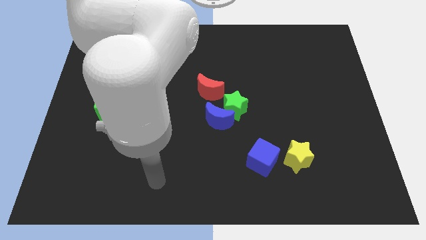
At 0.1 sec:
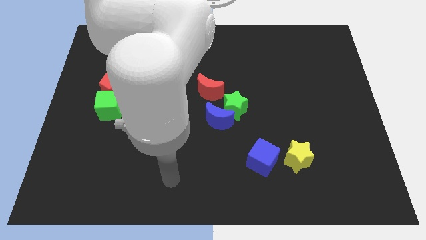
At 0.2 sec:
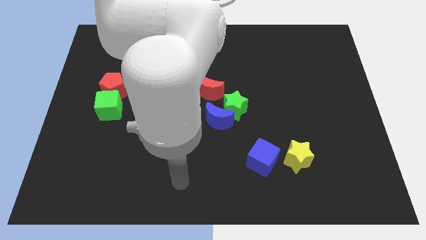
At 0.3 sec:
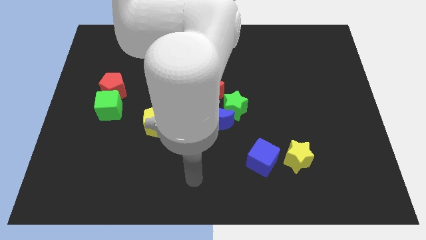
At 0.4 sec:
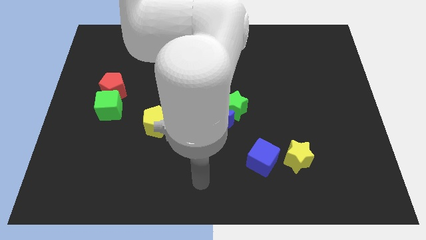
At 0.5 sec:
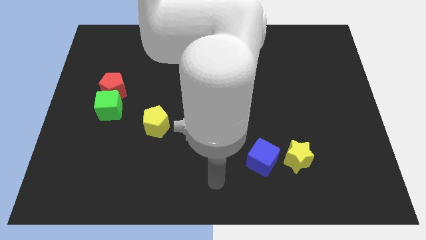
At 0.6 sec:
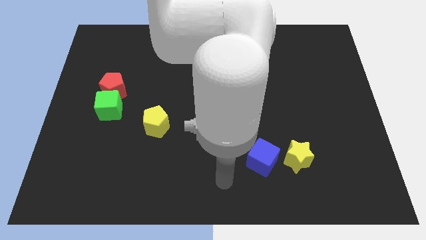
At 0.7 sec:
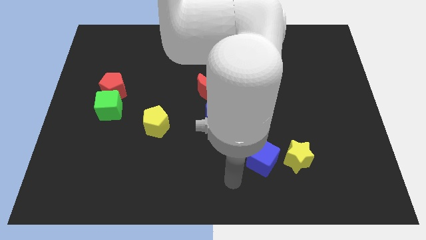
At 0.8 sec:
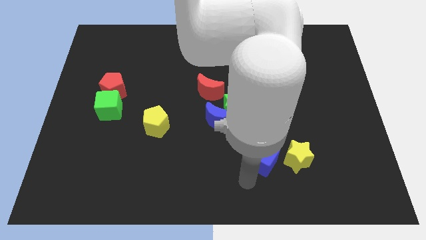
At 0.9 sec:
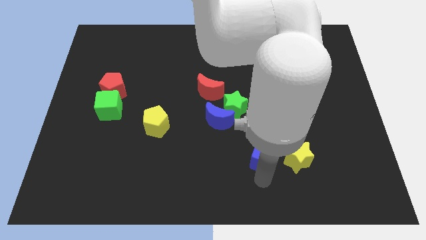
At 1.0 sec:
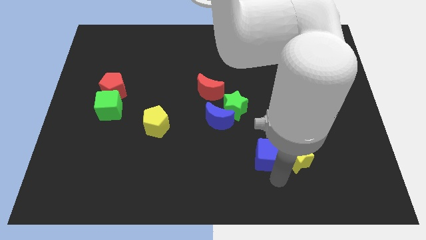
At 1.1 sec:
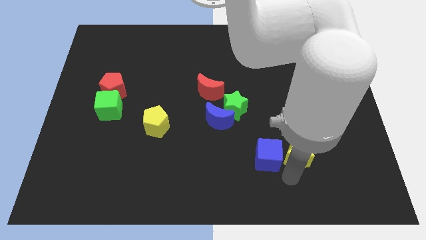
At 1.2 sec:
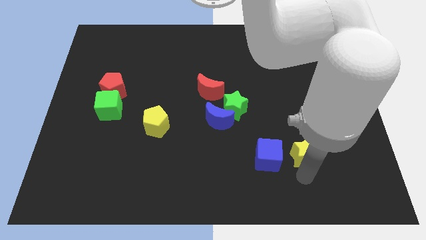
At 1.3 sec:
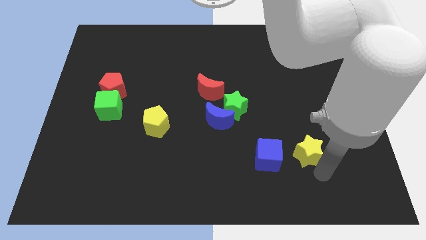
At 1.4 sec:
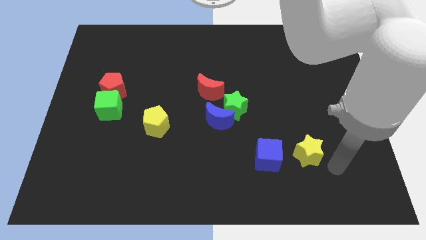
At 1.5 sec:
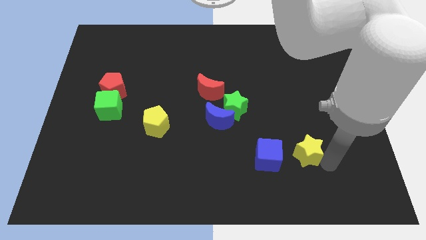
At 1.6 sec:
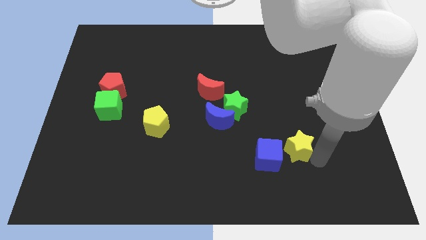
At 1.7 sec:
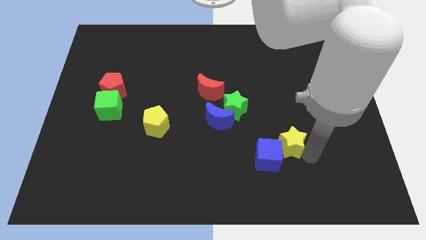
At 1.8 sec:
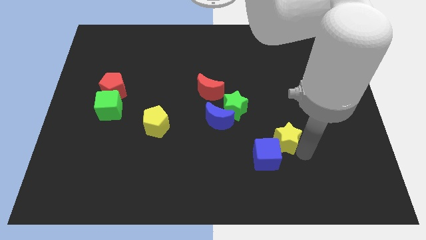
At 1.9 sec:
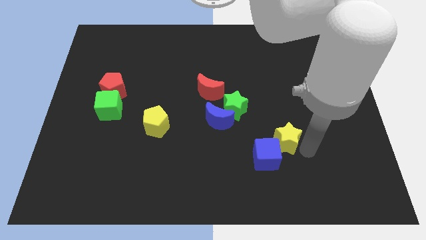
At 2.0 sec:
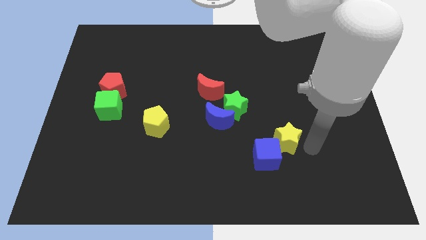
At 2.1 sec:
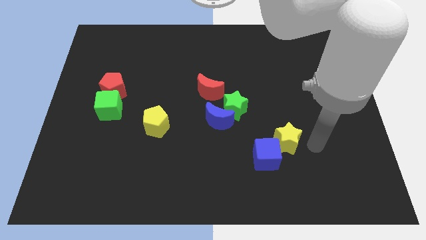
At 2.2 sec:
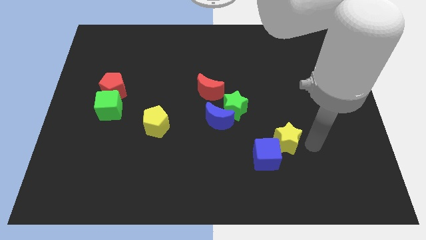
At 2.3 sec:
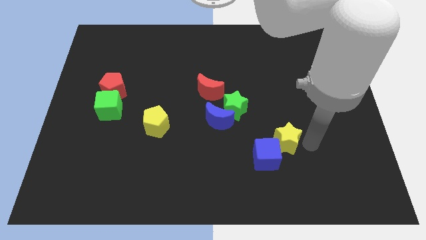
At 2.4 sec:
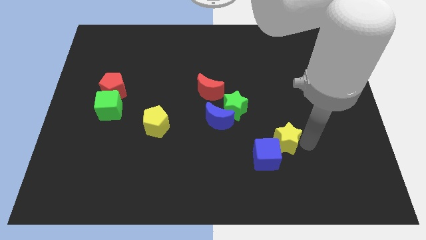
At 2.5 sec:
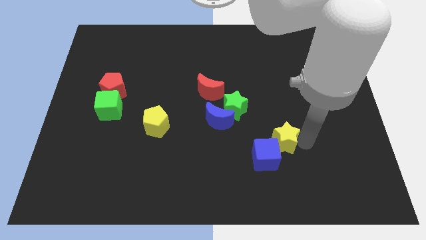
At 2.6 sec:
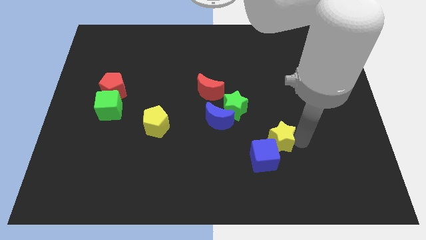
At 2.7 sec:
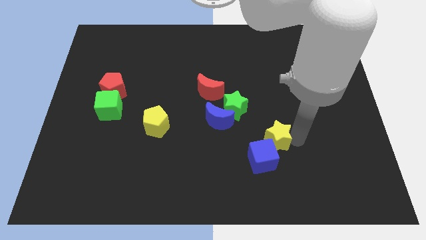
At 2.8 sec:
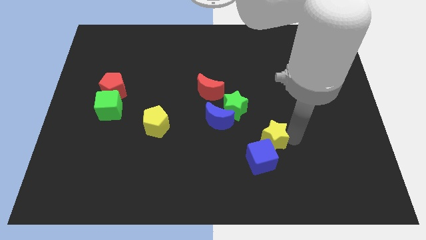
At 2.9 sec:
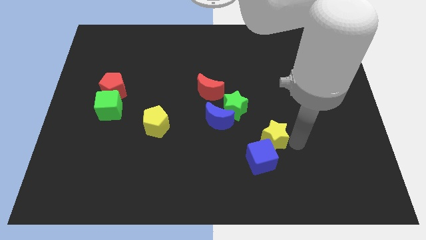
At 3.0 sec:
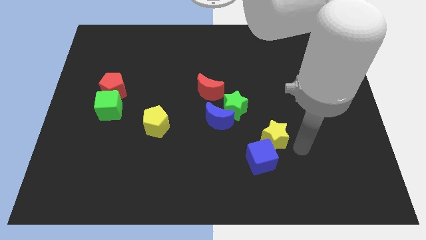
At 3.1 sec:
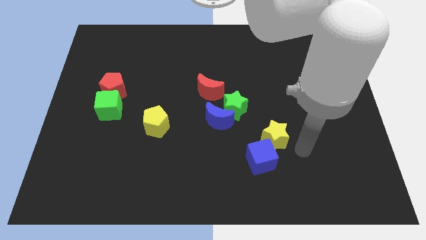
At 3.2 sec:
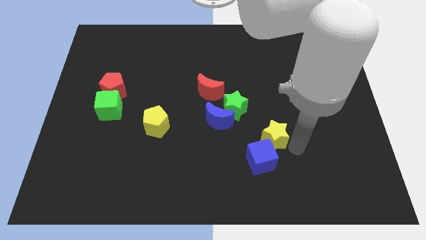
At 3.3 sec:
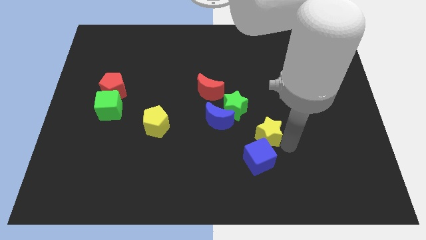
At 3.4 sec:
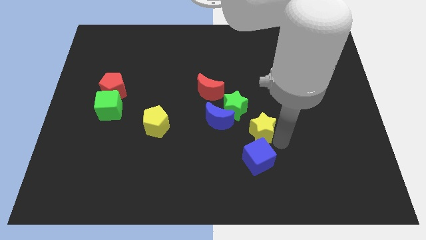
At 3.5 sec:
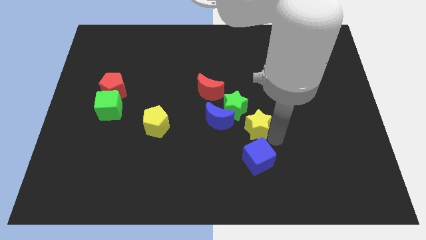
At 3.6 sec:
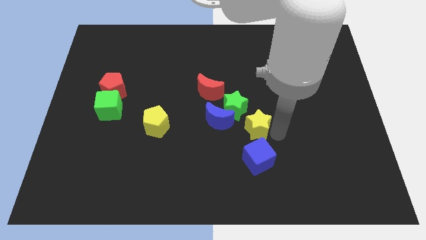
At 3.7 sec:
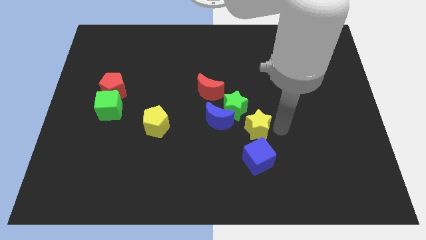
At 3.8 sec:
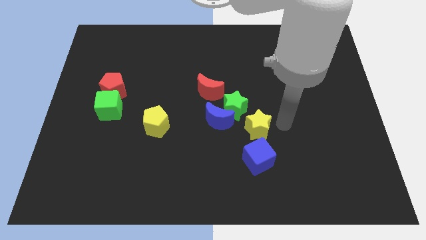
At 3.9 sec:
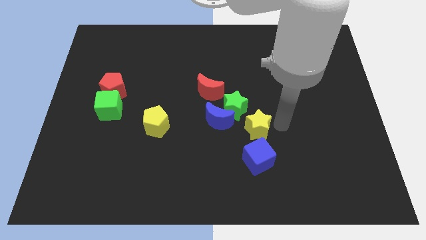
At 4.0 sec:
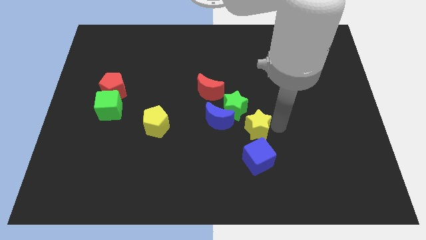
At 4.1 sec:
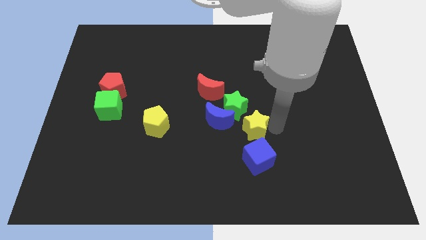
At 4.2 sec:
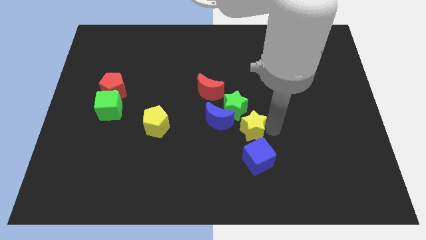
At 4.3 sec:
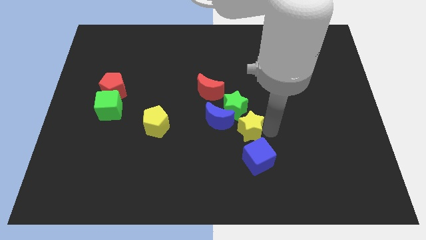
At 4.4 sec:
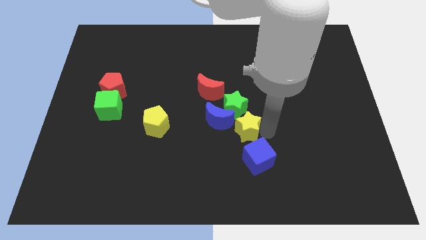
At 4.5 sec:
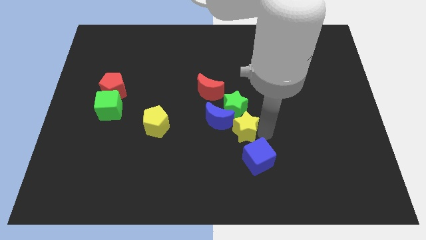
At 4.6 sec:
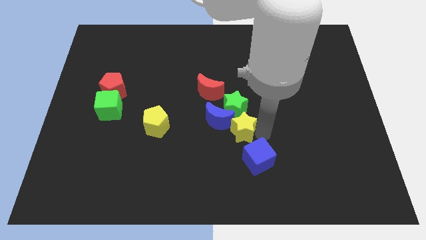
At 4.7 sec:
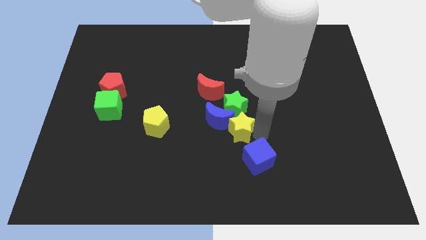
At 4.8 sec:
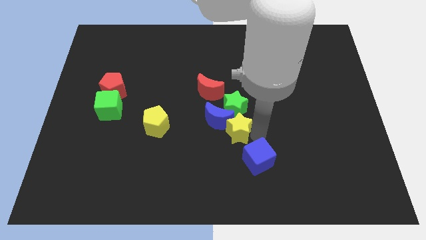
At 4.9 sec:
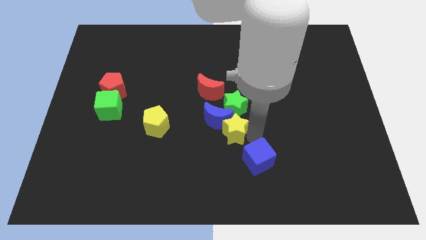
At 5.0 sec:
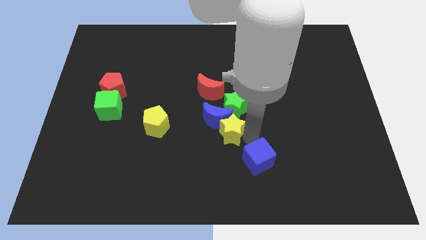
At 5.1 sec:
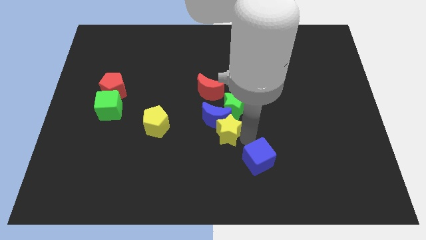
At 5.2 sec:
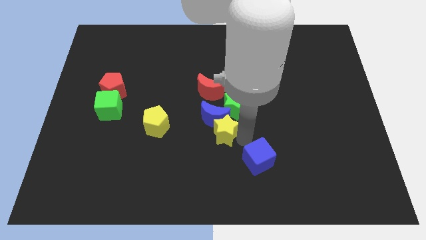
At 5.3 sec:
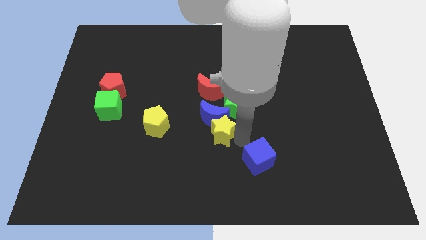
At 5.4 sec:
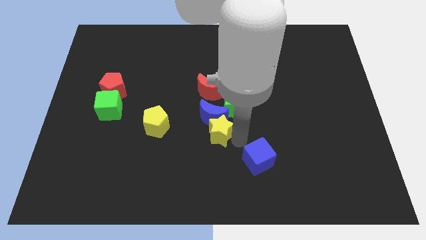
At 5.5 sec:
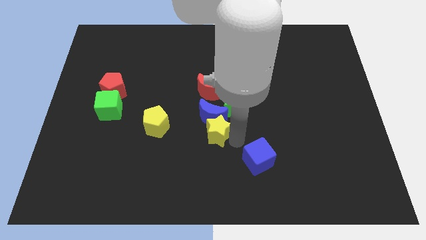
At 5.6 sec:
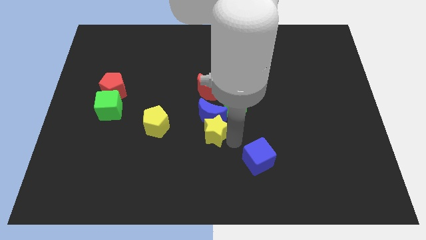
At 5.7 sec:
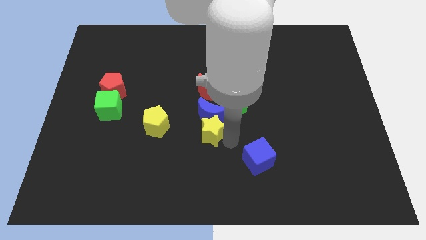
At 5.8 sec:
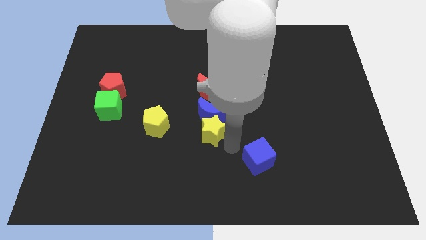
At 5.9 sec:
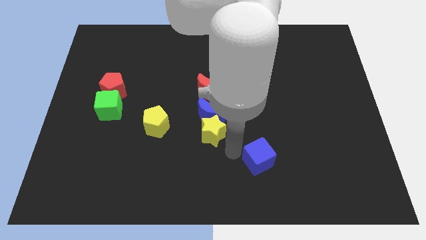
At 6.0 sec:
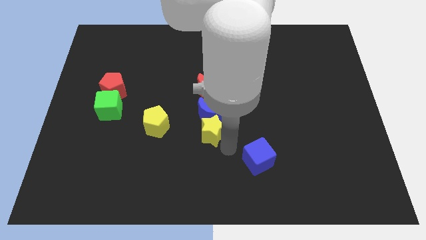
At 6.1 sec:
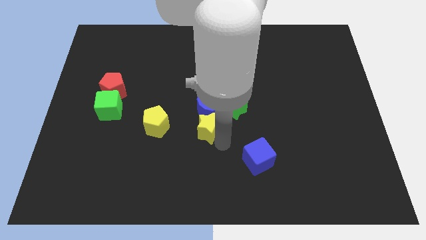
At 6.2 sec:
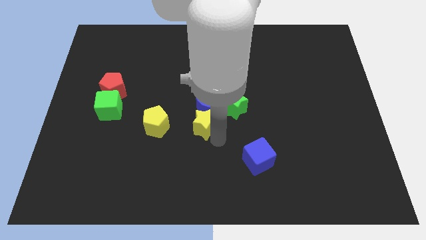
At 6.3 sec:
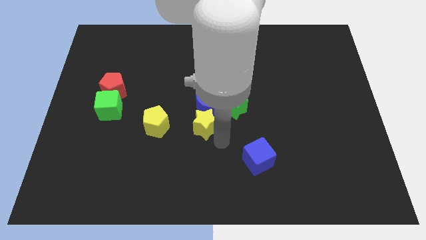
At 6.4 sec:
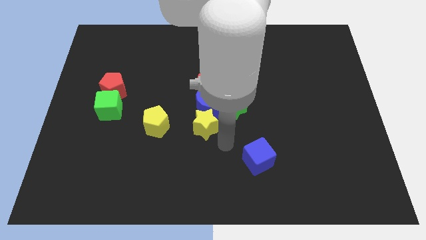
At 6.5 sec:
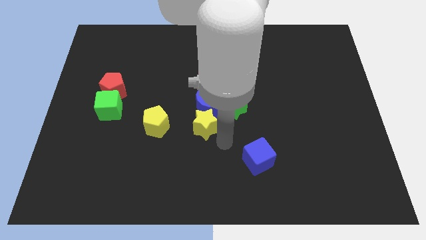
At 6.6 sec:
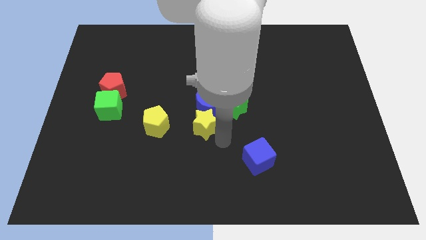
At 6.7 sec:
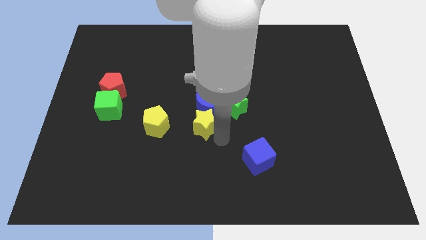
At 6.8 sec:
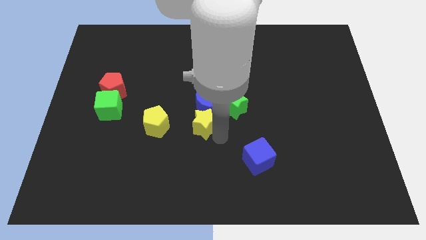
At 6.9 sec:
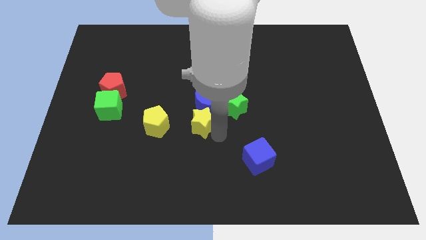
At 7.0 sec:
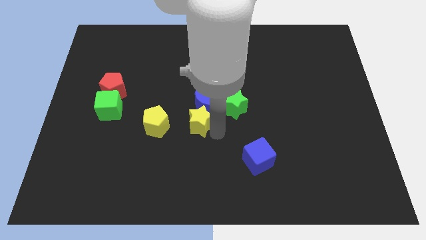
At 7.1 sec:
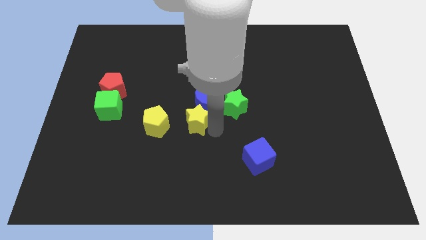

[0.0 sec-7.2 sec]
slide the yellow star to the bottom left of the red moon
